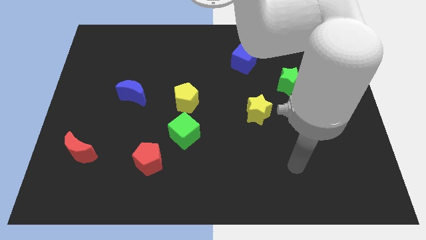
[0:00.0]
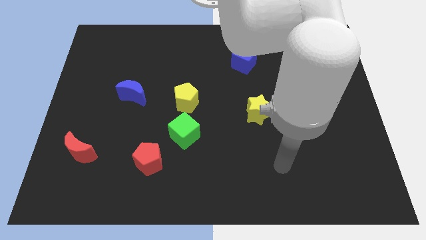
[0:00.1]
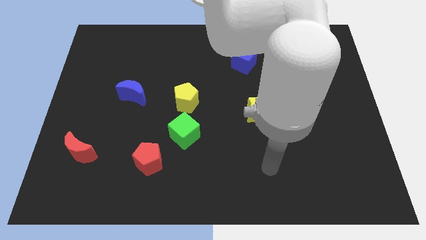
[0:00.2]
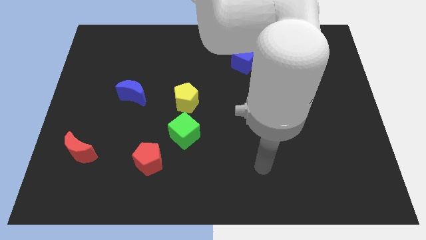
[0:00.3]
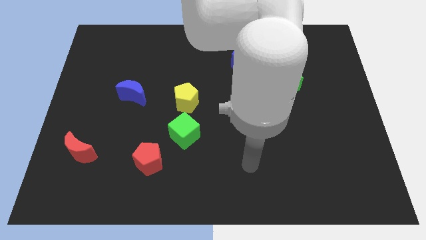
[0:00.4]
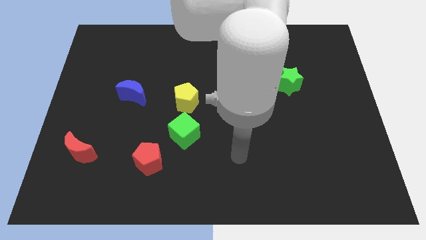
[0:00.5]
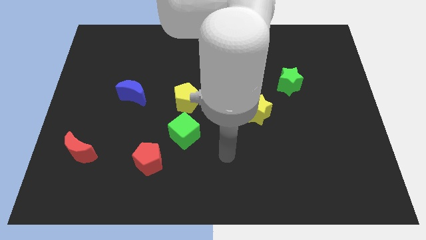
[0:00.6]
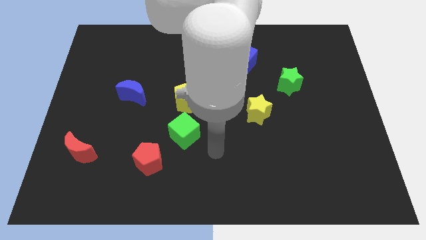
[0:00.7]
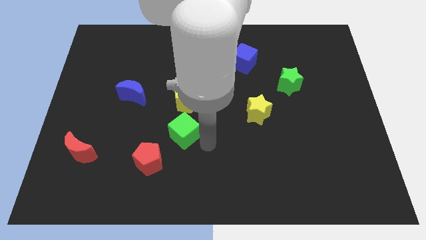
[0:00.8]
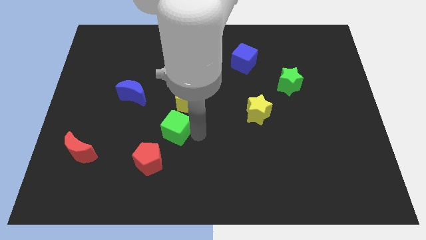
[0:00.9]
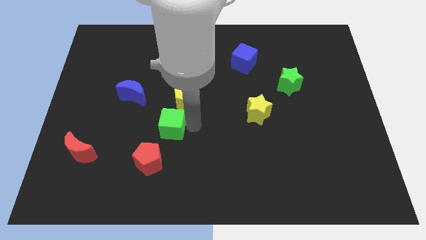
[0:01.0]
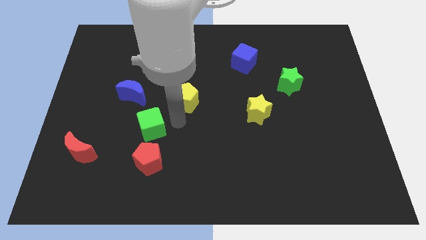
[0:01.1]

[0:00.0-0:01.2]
separate the yellow pentagon from the green cube

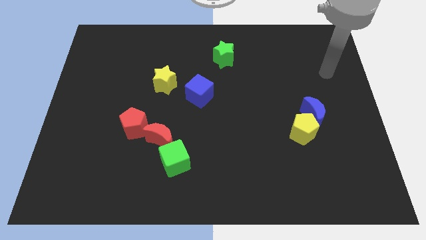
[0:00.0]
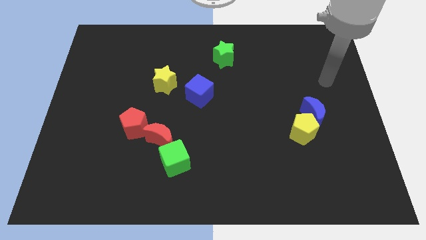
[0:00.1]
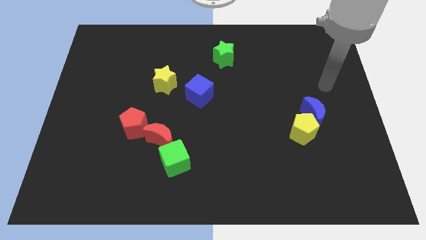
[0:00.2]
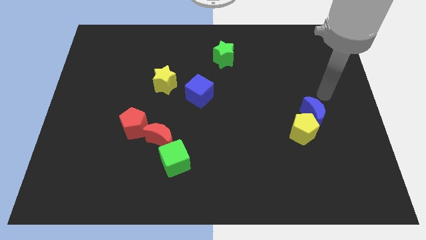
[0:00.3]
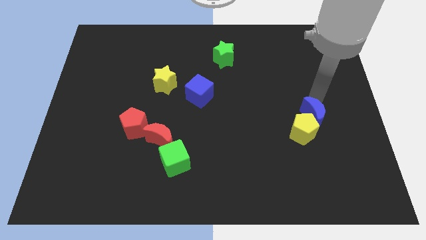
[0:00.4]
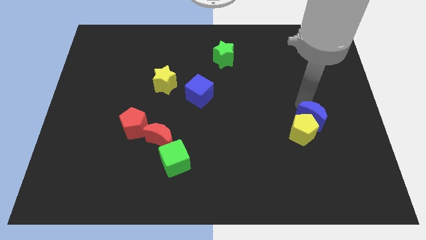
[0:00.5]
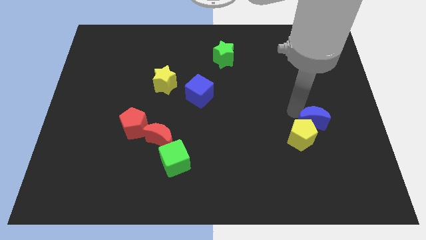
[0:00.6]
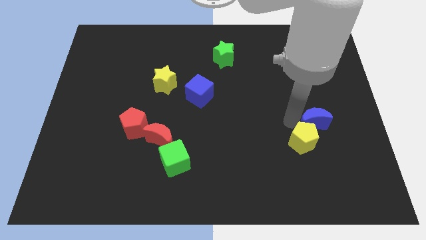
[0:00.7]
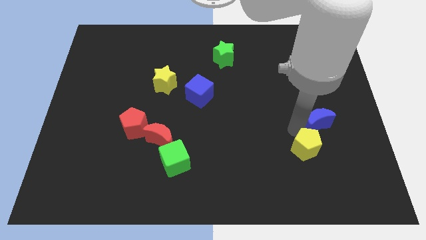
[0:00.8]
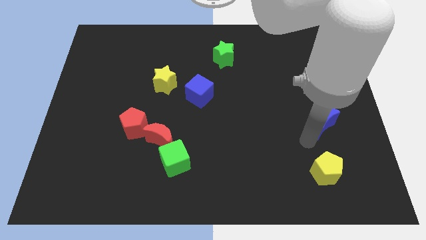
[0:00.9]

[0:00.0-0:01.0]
move the blue moon away from the yellow pentagon

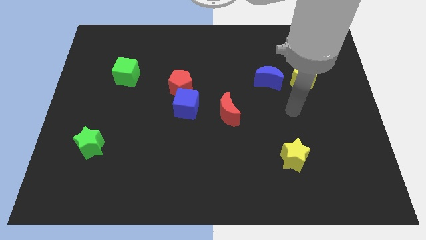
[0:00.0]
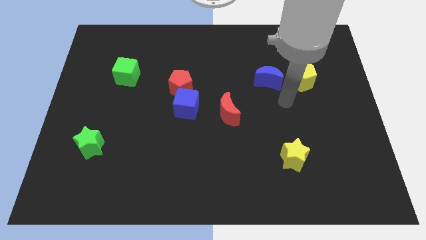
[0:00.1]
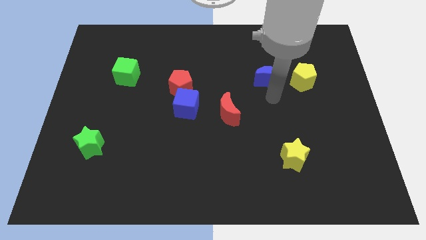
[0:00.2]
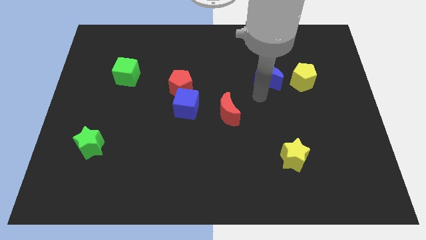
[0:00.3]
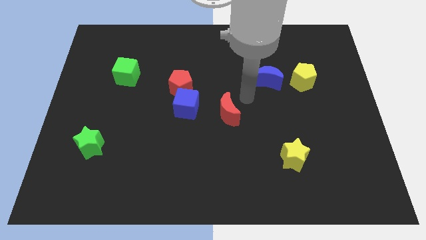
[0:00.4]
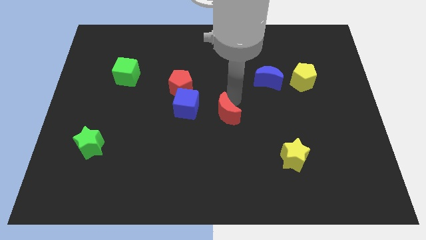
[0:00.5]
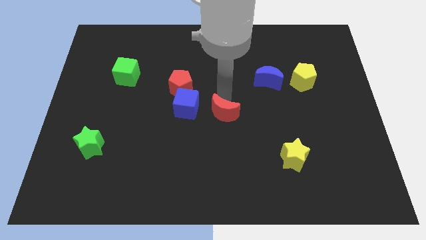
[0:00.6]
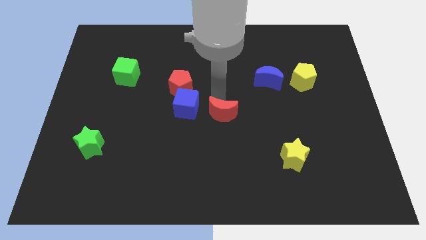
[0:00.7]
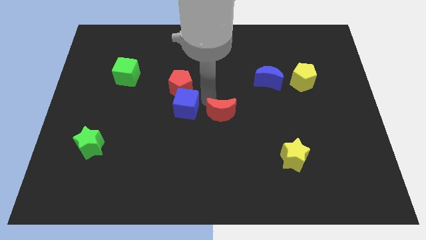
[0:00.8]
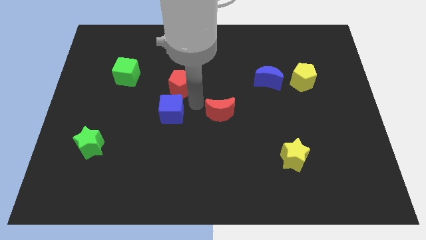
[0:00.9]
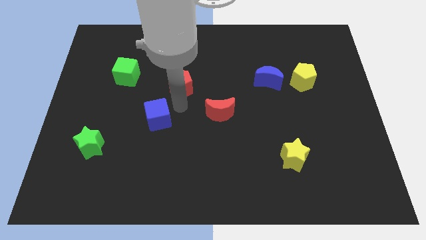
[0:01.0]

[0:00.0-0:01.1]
pull the red pentagon apart from the blue cube

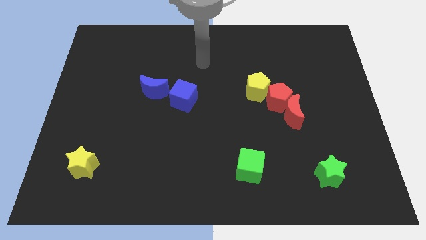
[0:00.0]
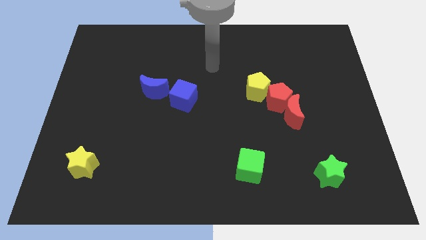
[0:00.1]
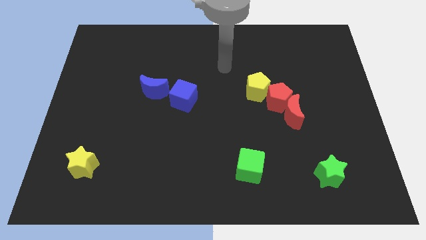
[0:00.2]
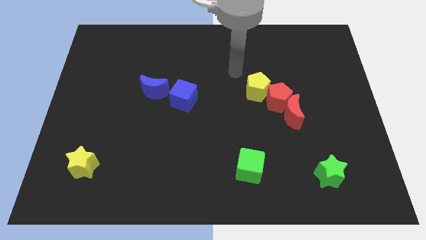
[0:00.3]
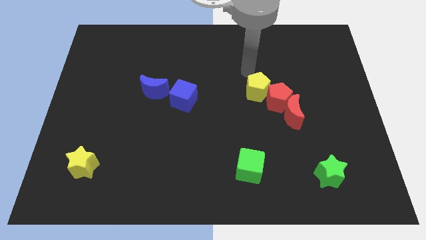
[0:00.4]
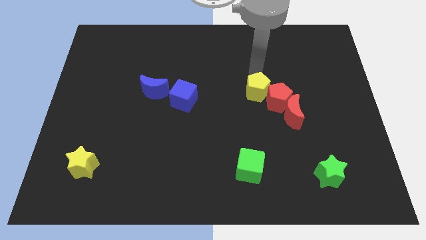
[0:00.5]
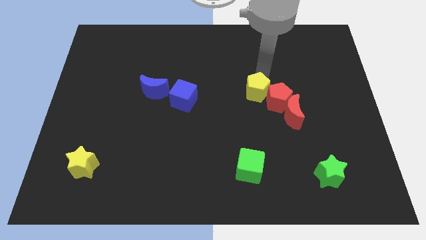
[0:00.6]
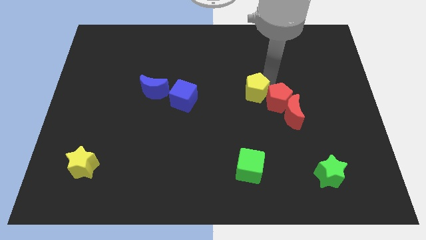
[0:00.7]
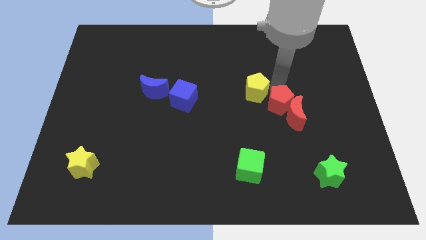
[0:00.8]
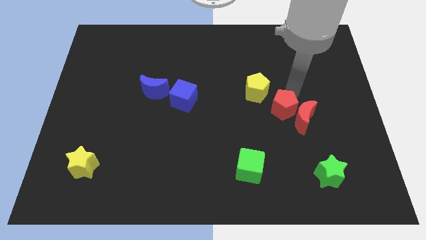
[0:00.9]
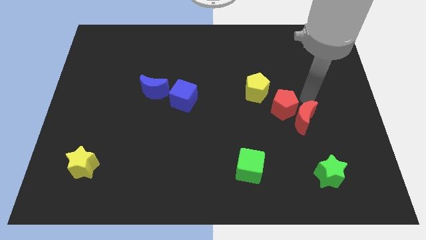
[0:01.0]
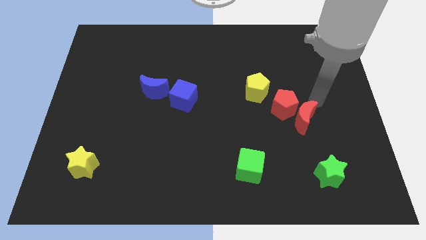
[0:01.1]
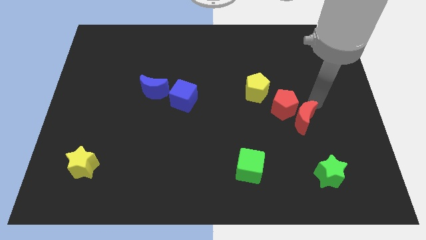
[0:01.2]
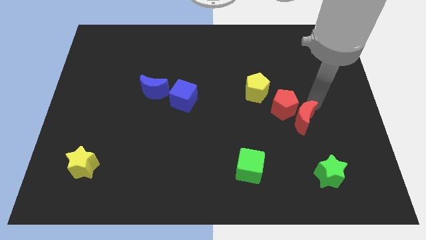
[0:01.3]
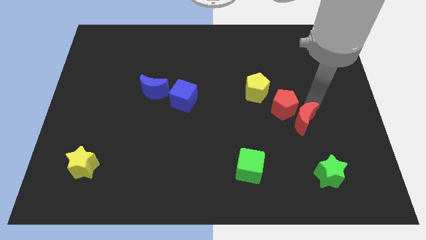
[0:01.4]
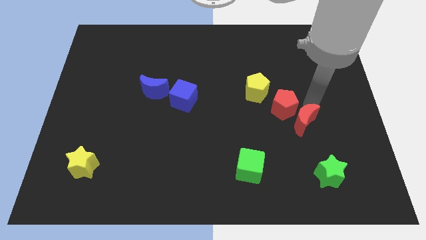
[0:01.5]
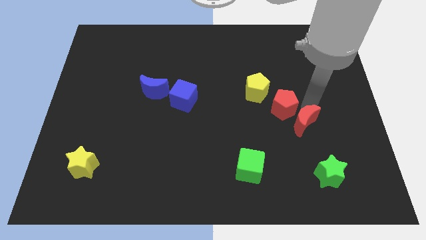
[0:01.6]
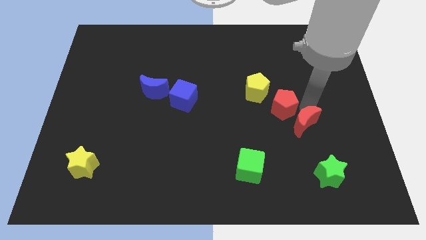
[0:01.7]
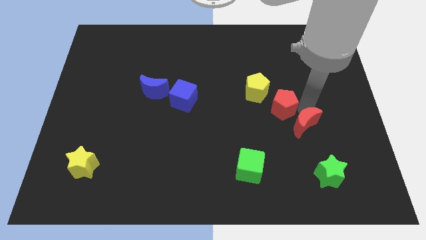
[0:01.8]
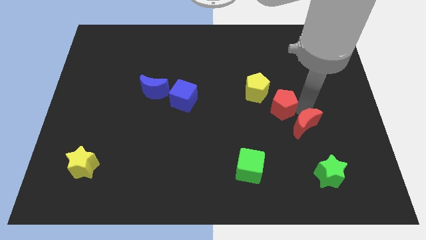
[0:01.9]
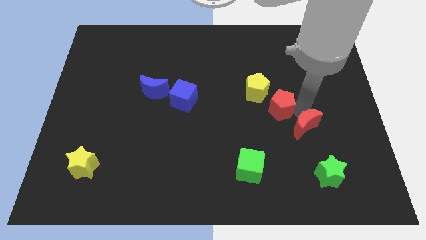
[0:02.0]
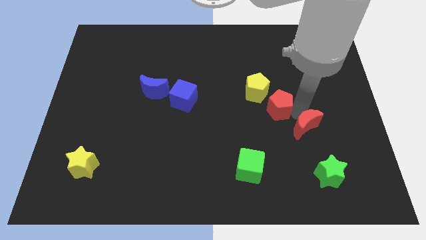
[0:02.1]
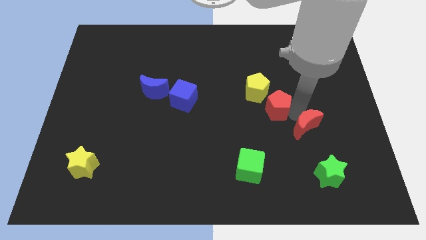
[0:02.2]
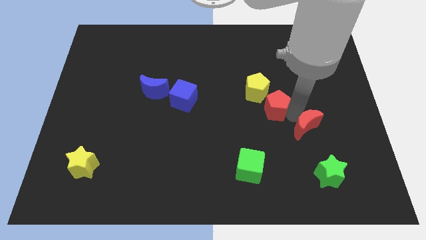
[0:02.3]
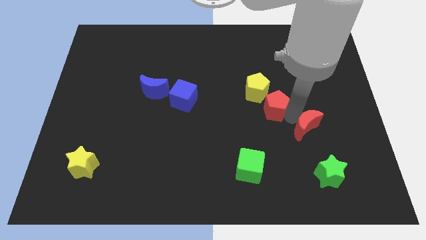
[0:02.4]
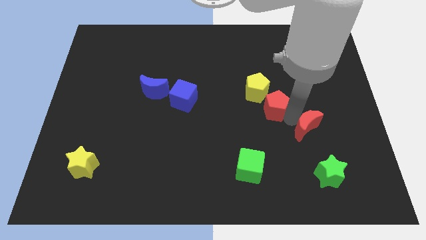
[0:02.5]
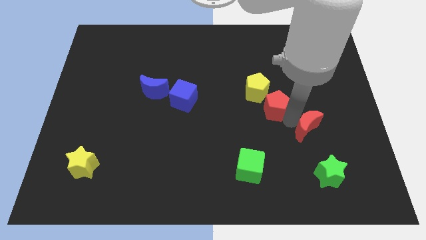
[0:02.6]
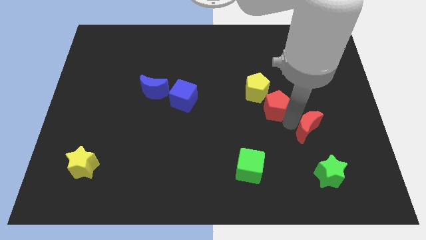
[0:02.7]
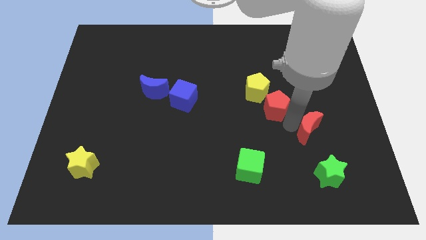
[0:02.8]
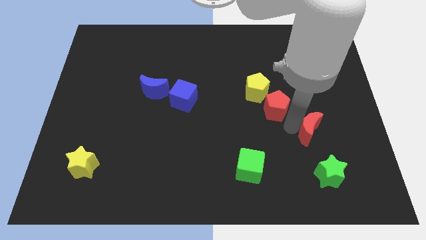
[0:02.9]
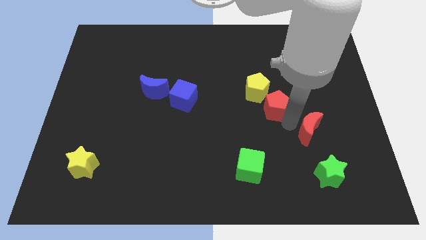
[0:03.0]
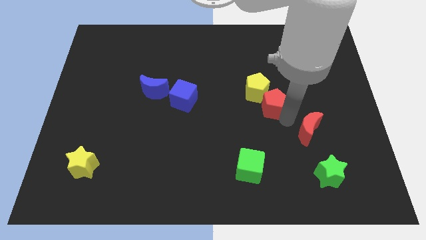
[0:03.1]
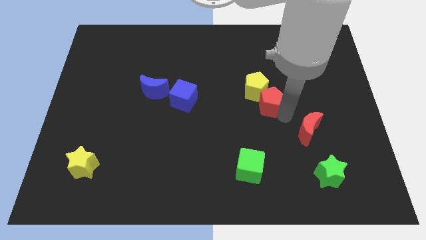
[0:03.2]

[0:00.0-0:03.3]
pull the red moon apart from the red pentagon

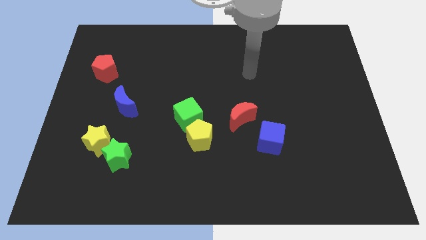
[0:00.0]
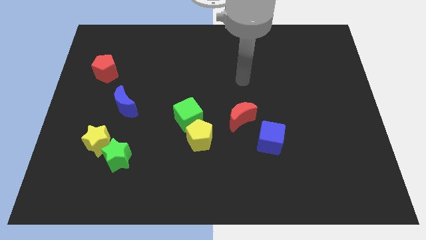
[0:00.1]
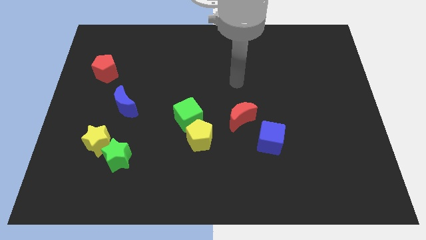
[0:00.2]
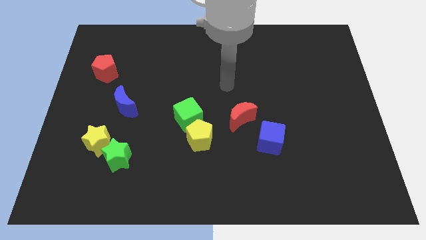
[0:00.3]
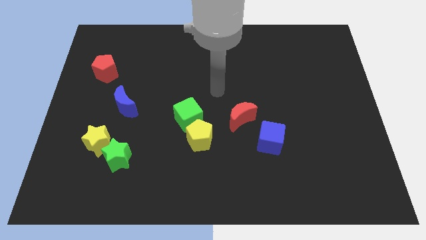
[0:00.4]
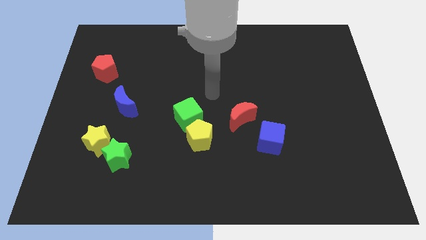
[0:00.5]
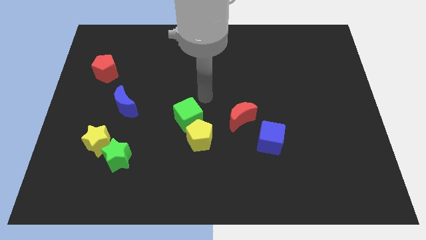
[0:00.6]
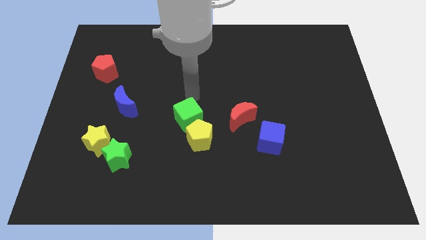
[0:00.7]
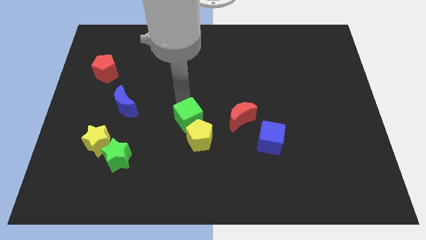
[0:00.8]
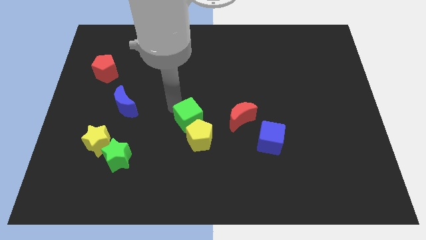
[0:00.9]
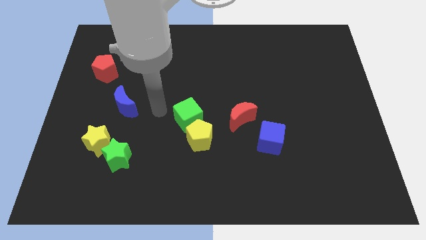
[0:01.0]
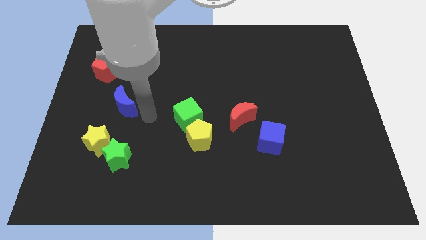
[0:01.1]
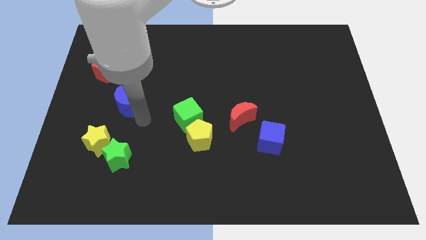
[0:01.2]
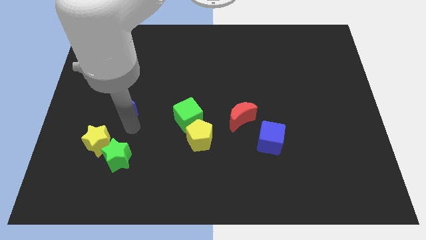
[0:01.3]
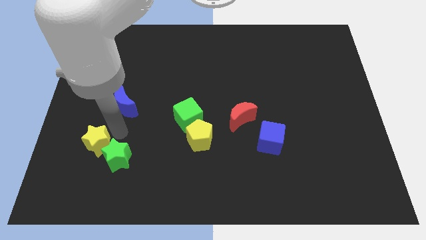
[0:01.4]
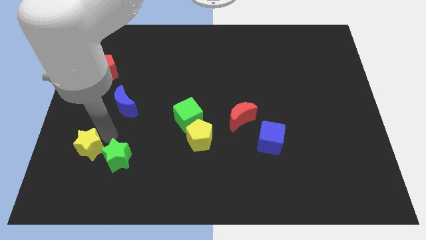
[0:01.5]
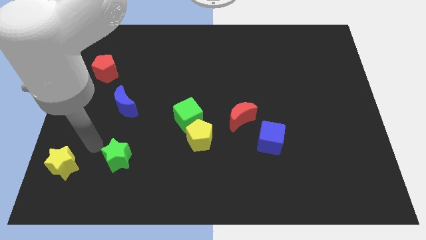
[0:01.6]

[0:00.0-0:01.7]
move the green star away from the yellow star

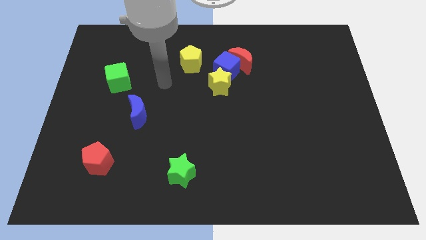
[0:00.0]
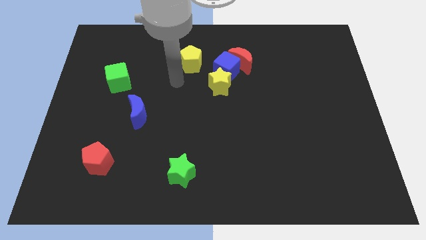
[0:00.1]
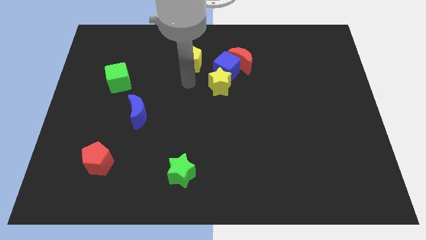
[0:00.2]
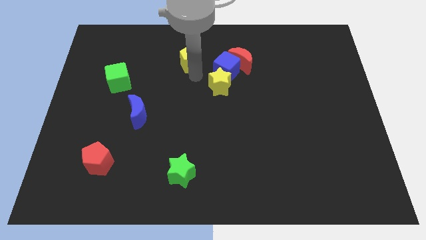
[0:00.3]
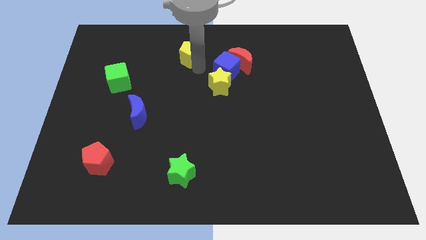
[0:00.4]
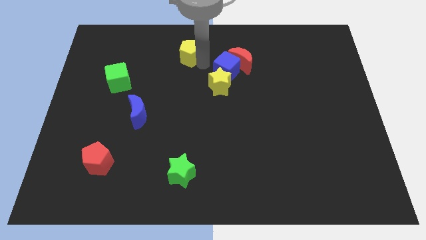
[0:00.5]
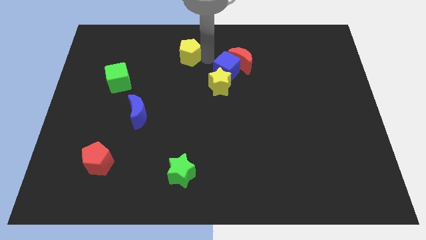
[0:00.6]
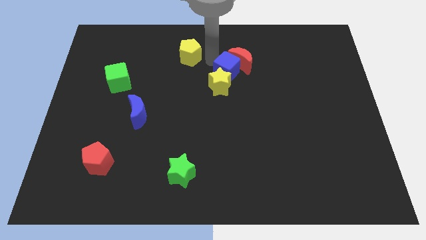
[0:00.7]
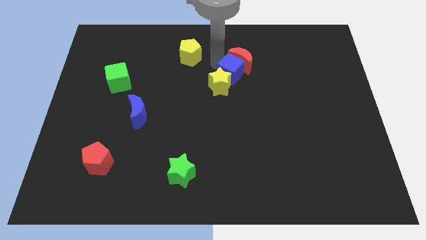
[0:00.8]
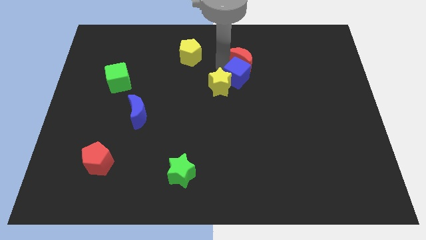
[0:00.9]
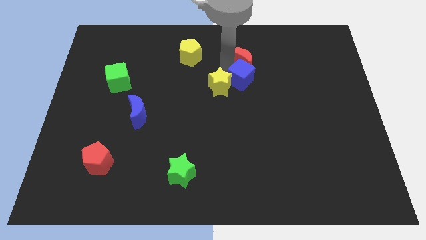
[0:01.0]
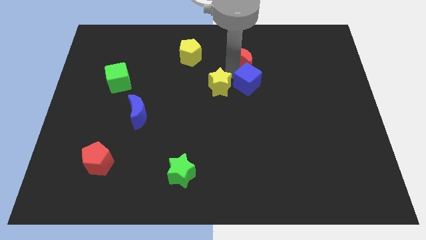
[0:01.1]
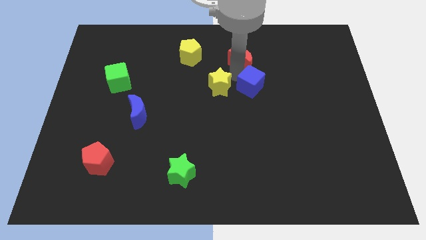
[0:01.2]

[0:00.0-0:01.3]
separate the blue cube from the group of blocks
